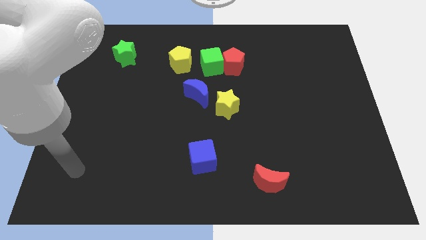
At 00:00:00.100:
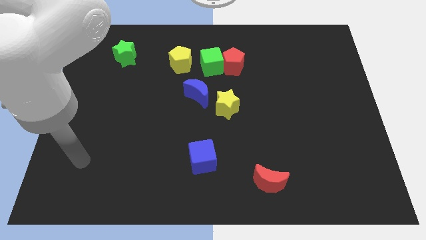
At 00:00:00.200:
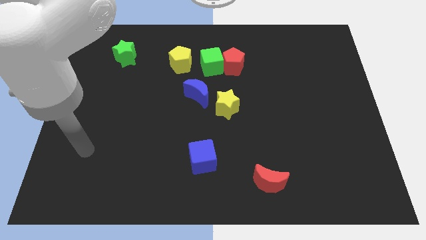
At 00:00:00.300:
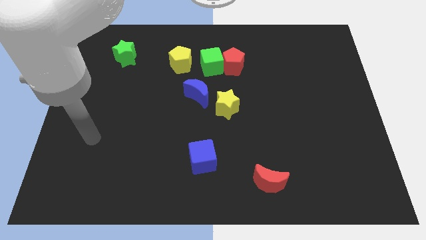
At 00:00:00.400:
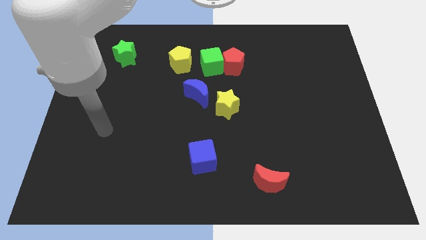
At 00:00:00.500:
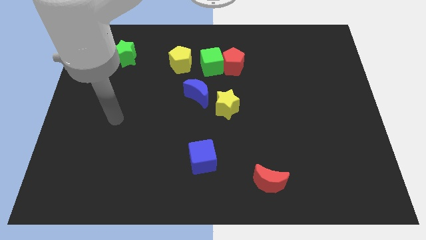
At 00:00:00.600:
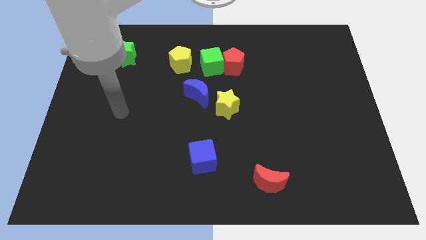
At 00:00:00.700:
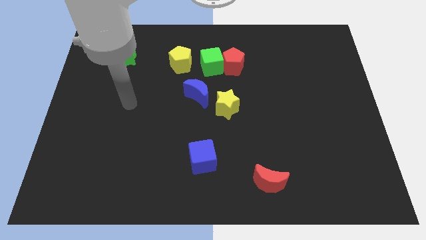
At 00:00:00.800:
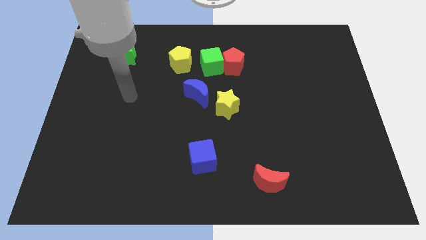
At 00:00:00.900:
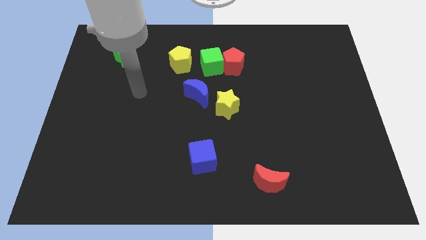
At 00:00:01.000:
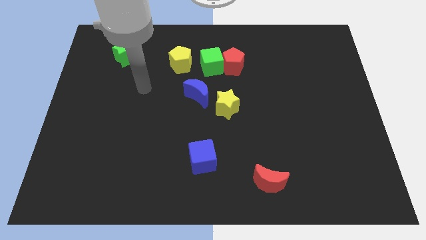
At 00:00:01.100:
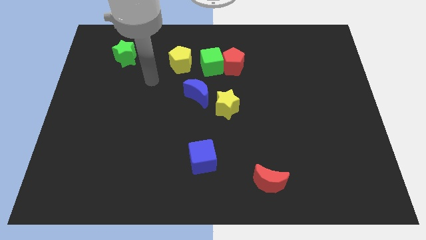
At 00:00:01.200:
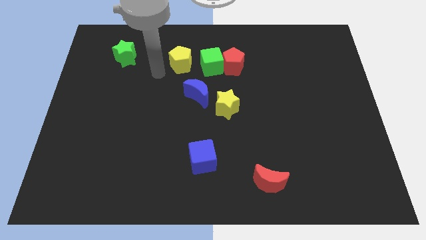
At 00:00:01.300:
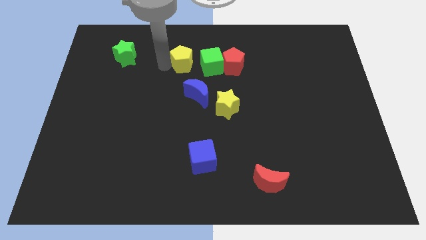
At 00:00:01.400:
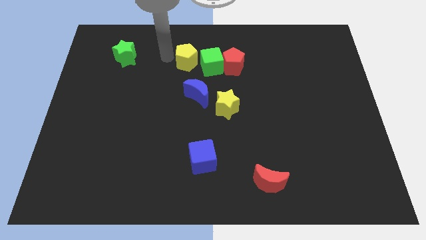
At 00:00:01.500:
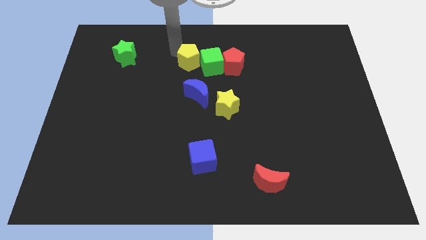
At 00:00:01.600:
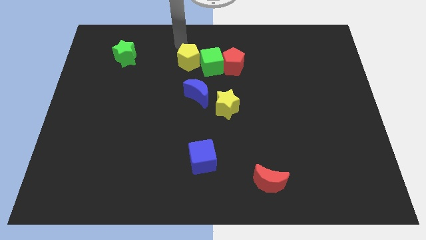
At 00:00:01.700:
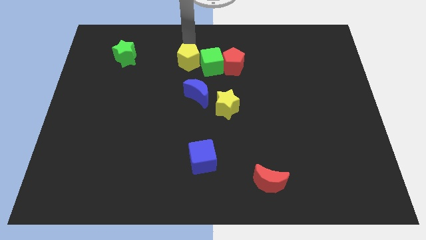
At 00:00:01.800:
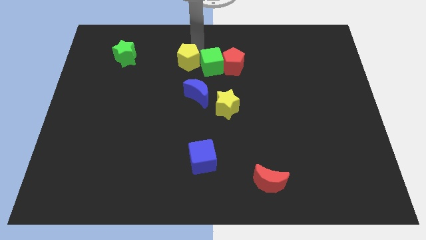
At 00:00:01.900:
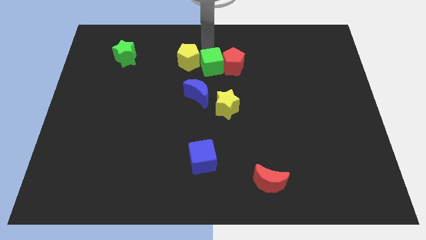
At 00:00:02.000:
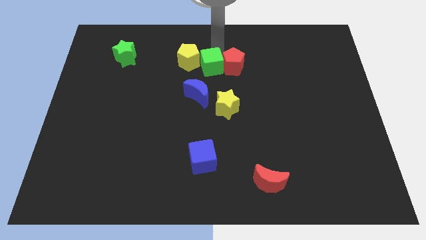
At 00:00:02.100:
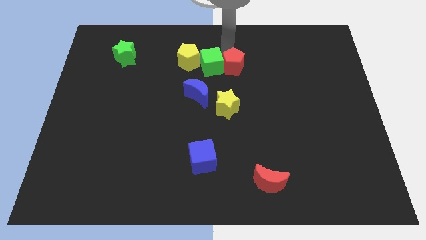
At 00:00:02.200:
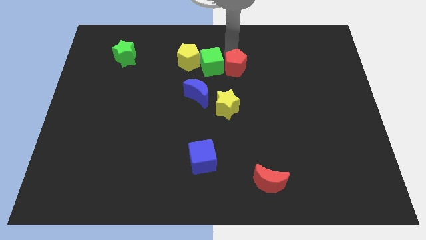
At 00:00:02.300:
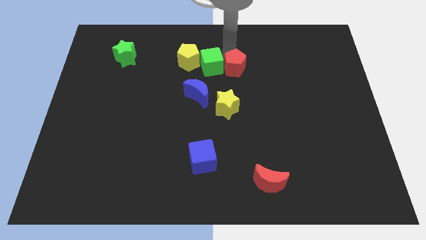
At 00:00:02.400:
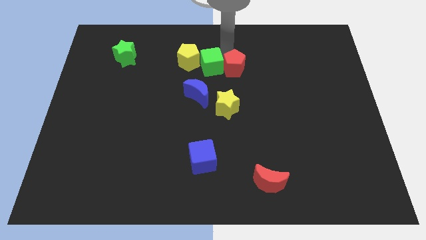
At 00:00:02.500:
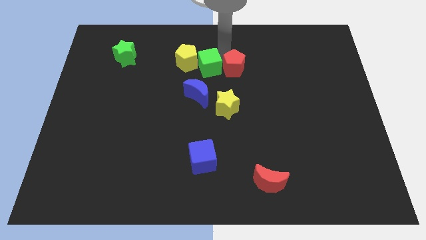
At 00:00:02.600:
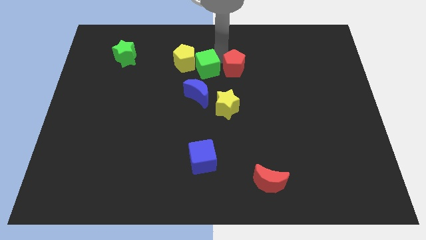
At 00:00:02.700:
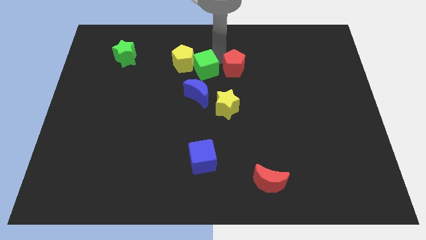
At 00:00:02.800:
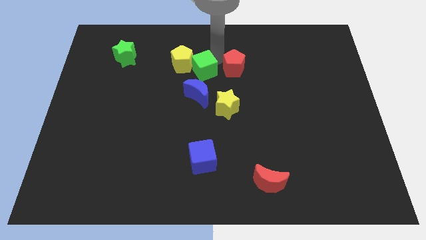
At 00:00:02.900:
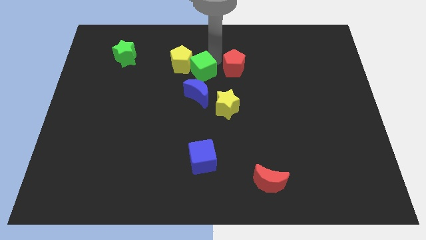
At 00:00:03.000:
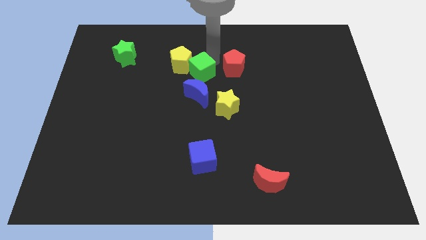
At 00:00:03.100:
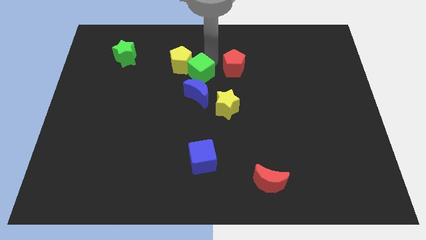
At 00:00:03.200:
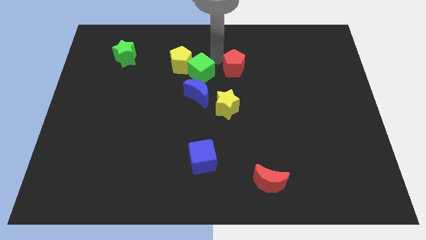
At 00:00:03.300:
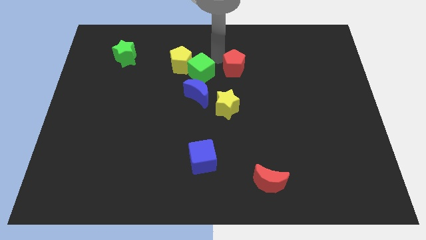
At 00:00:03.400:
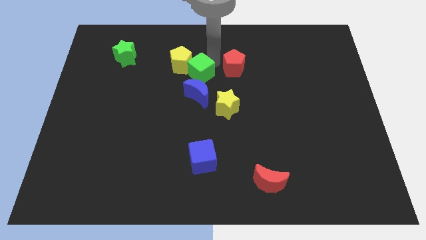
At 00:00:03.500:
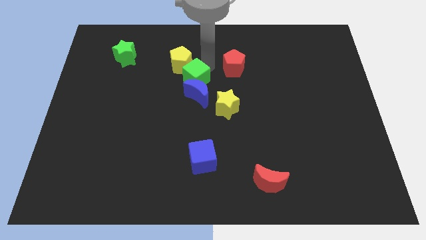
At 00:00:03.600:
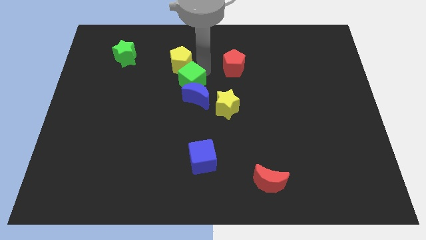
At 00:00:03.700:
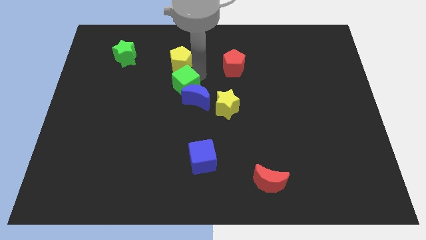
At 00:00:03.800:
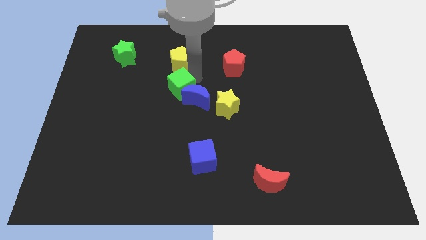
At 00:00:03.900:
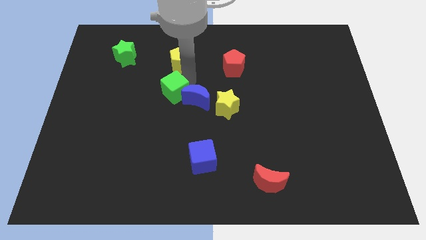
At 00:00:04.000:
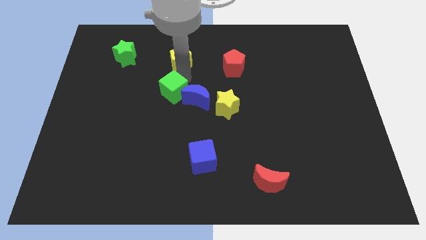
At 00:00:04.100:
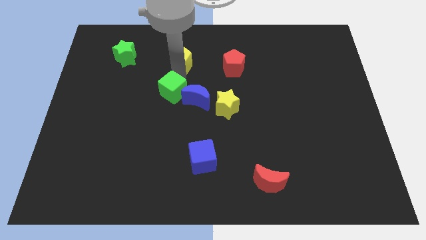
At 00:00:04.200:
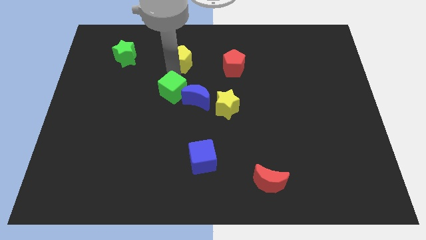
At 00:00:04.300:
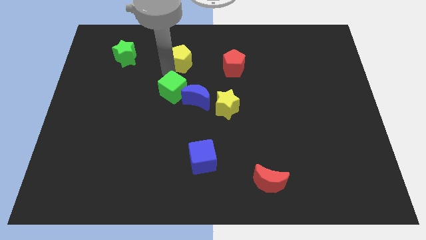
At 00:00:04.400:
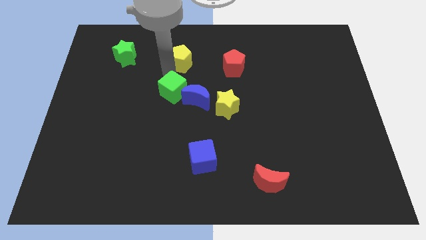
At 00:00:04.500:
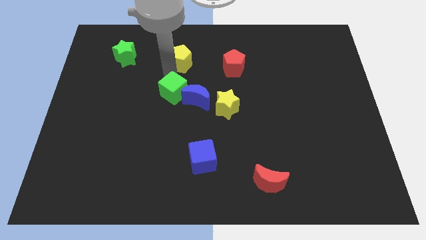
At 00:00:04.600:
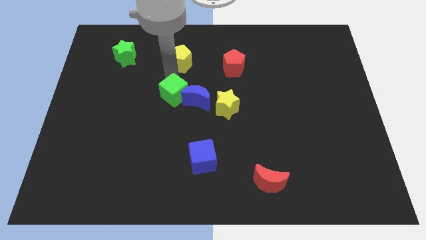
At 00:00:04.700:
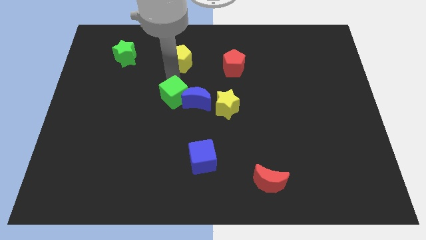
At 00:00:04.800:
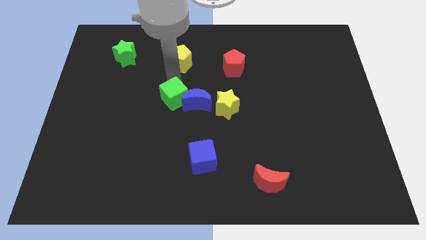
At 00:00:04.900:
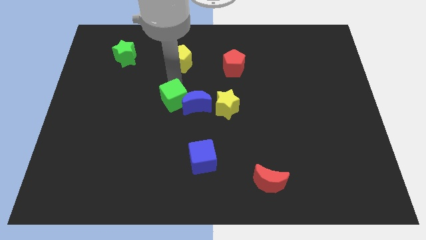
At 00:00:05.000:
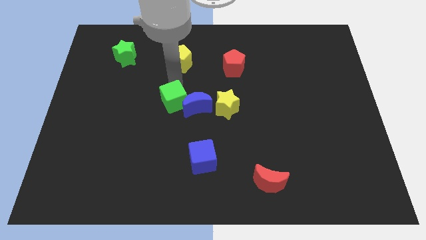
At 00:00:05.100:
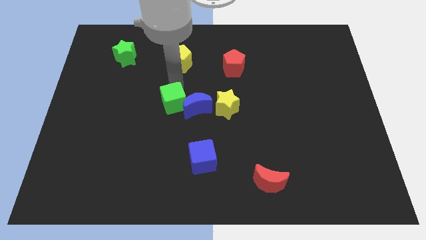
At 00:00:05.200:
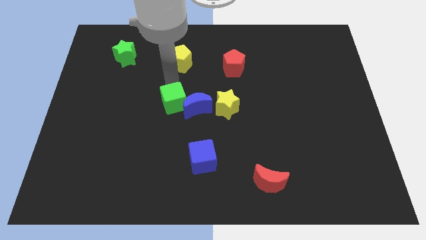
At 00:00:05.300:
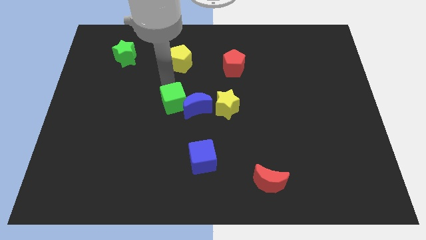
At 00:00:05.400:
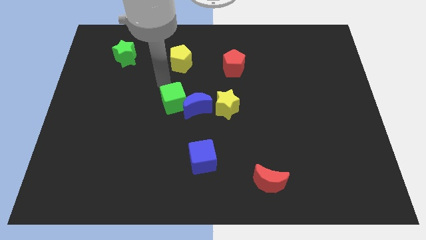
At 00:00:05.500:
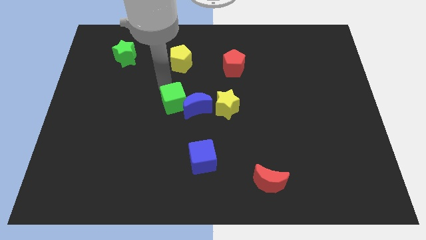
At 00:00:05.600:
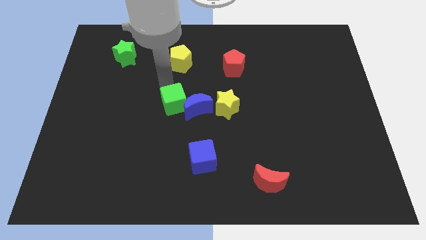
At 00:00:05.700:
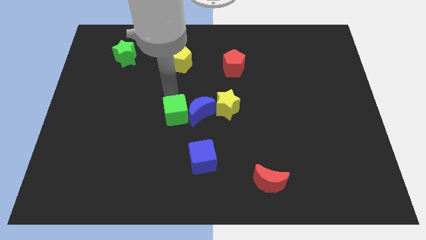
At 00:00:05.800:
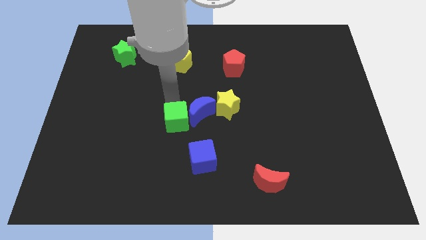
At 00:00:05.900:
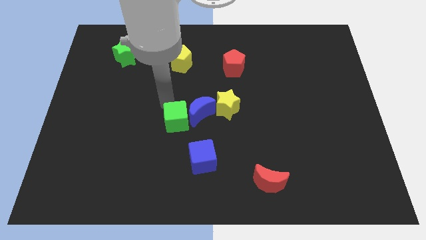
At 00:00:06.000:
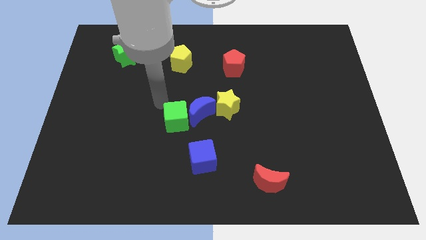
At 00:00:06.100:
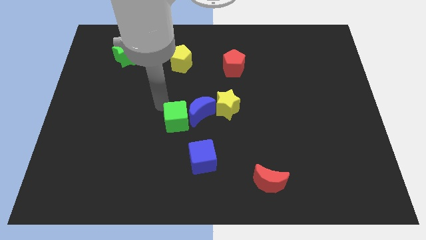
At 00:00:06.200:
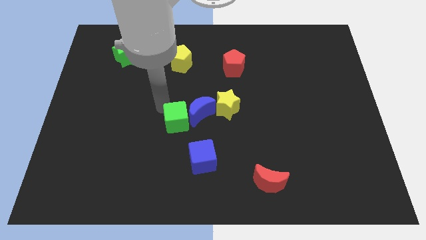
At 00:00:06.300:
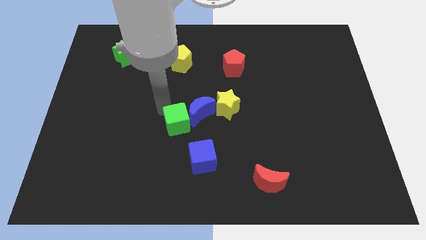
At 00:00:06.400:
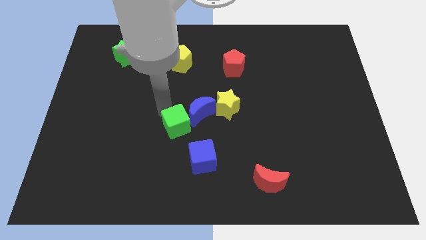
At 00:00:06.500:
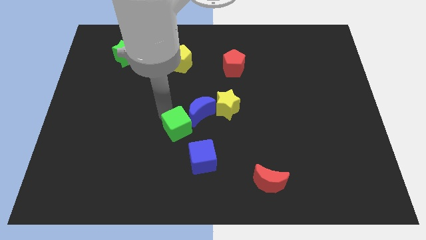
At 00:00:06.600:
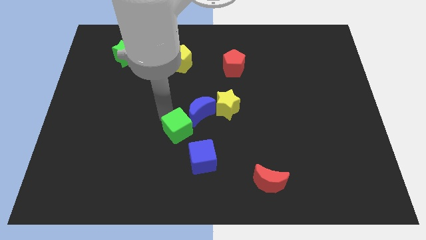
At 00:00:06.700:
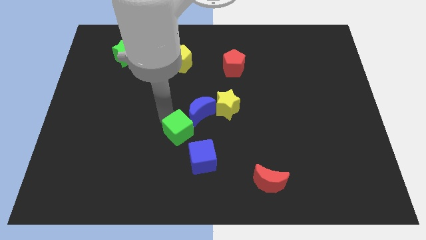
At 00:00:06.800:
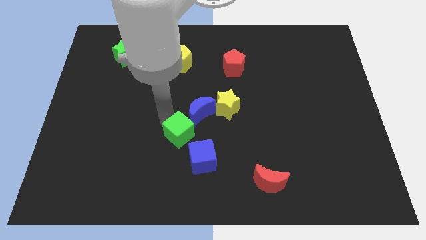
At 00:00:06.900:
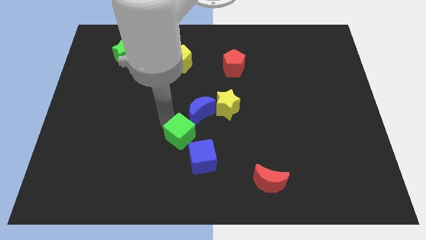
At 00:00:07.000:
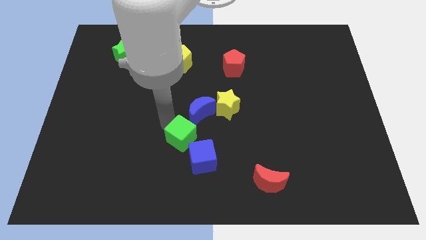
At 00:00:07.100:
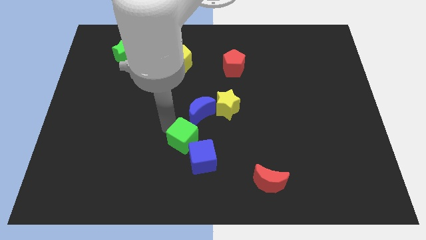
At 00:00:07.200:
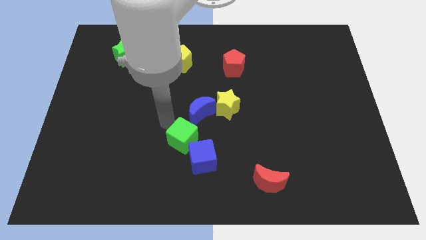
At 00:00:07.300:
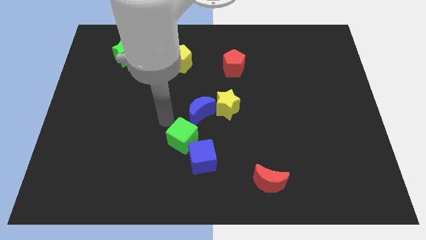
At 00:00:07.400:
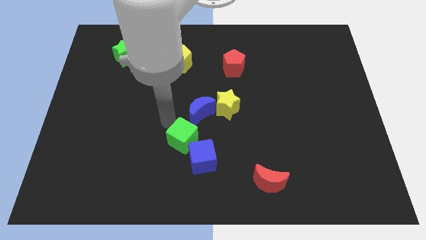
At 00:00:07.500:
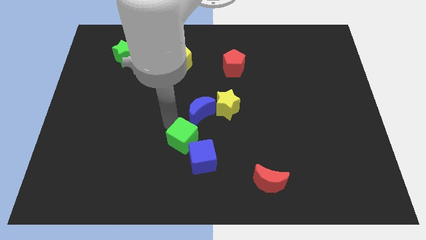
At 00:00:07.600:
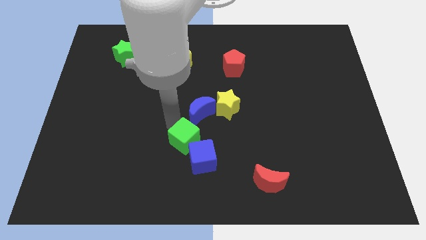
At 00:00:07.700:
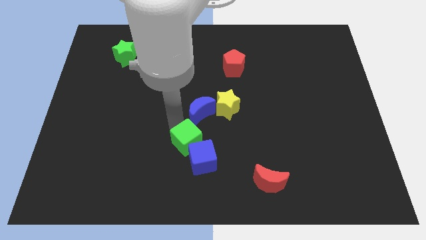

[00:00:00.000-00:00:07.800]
slide the green cube close to the blue cube

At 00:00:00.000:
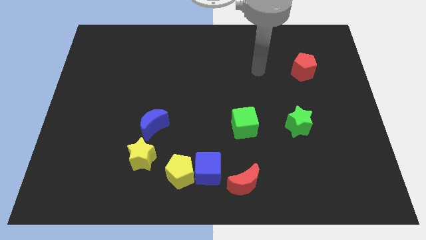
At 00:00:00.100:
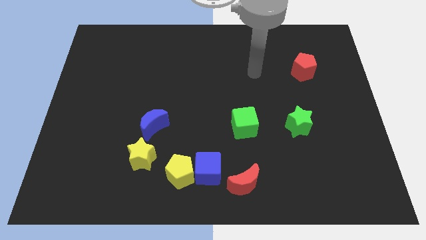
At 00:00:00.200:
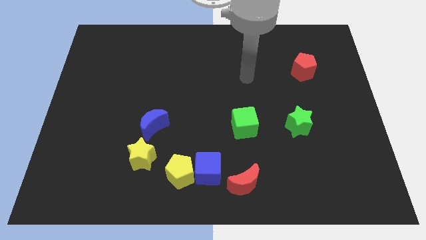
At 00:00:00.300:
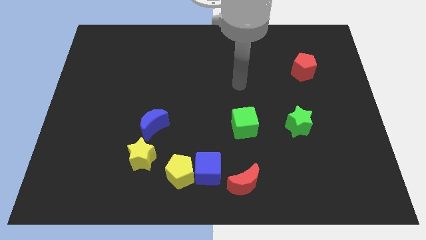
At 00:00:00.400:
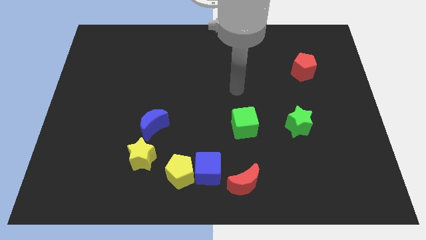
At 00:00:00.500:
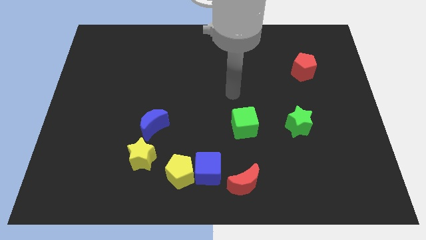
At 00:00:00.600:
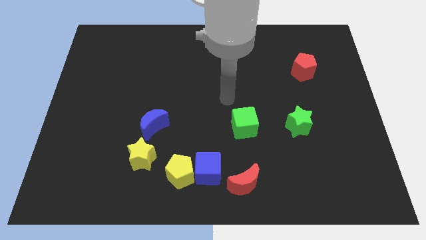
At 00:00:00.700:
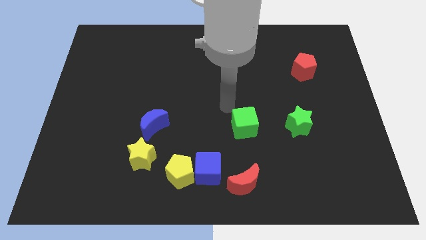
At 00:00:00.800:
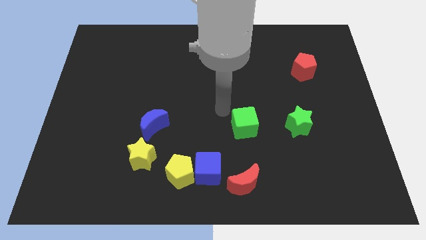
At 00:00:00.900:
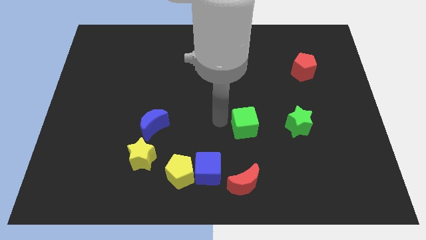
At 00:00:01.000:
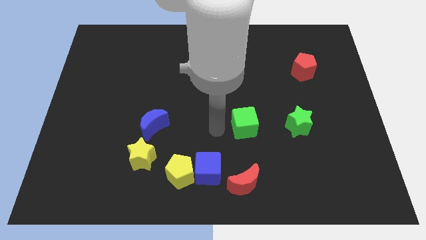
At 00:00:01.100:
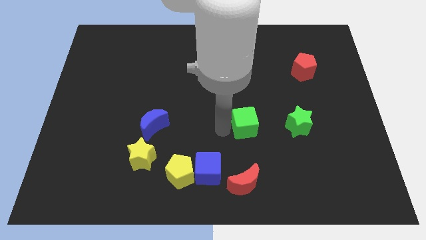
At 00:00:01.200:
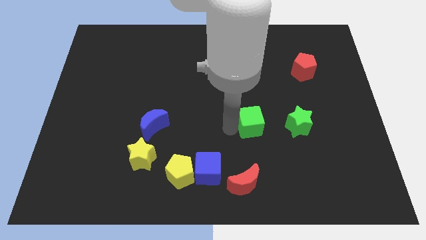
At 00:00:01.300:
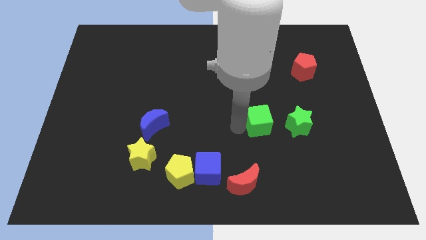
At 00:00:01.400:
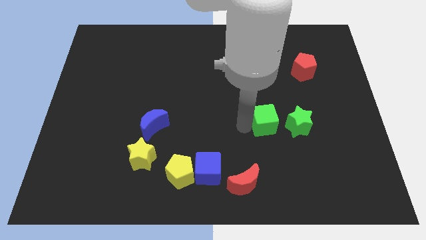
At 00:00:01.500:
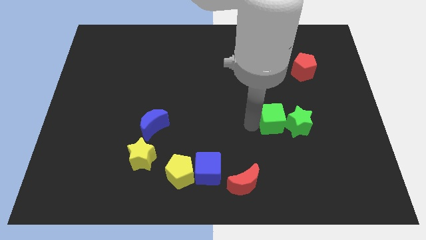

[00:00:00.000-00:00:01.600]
slide the green cube towards the green star
